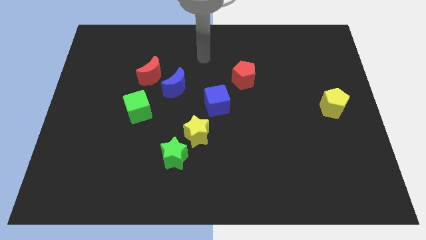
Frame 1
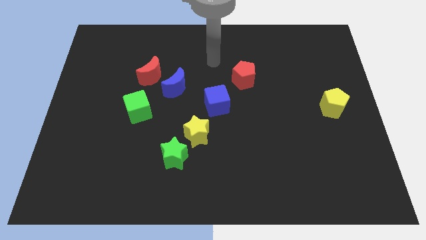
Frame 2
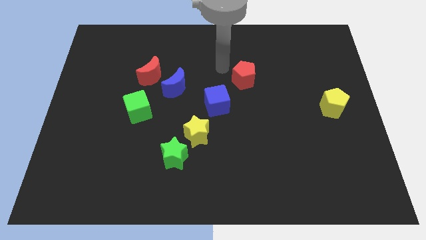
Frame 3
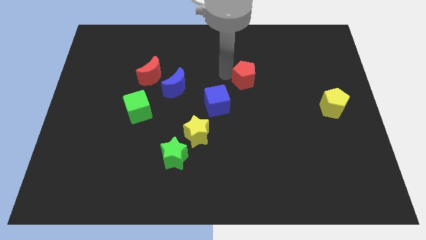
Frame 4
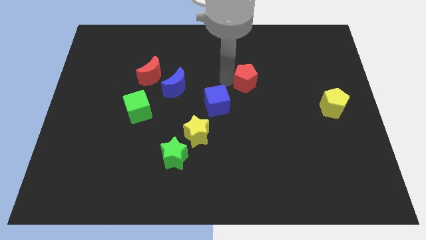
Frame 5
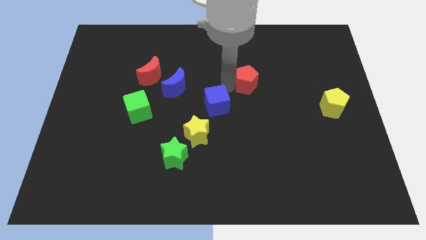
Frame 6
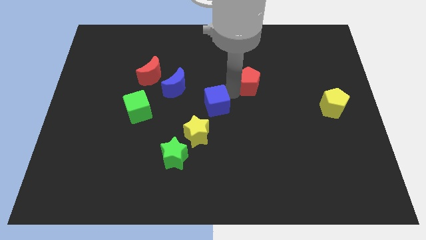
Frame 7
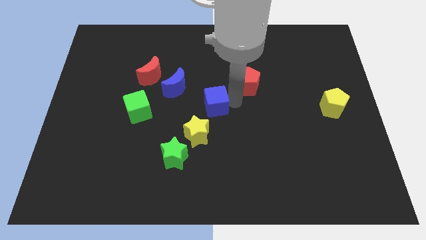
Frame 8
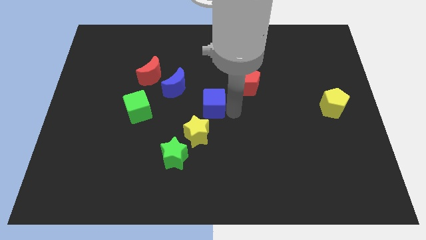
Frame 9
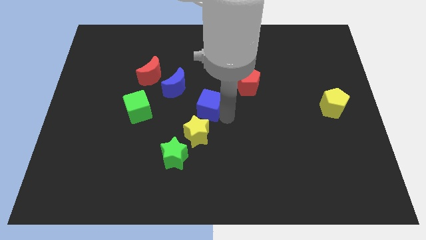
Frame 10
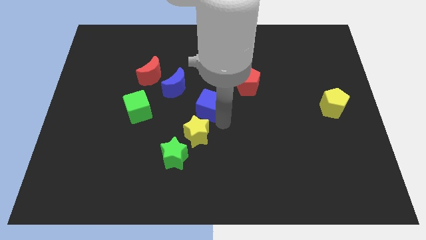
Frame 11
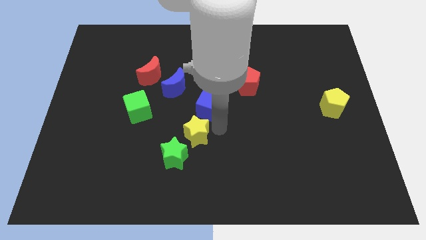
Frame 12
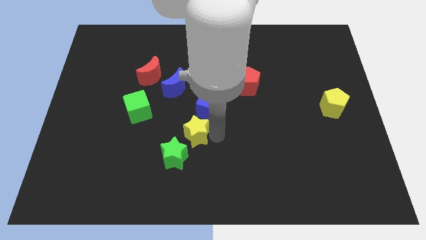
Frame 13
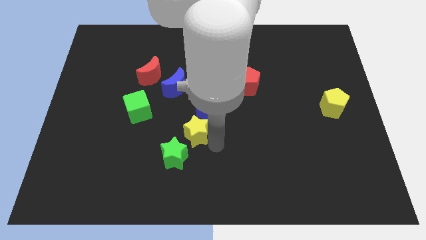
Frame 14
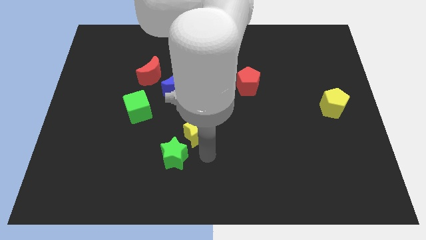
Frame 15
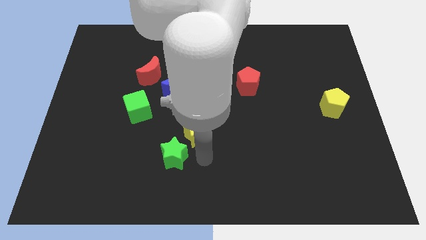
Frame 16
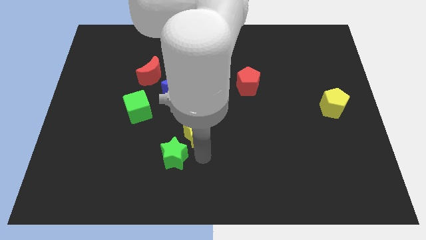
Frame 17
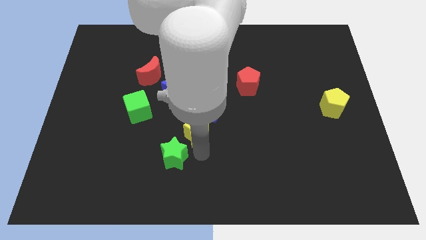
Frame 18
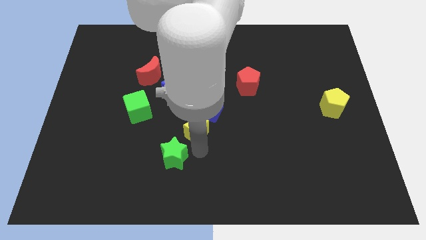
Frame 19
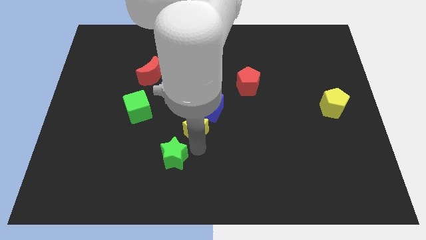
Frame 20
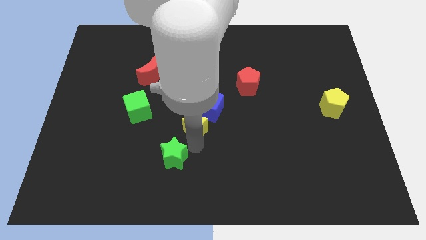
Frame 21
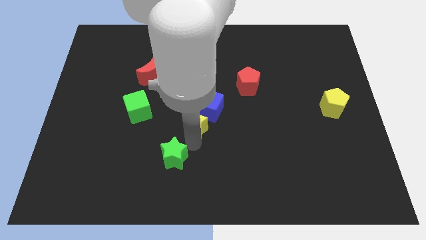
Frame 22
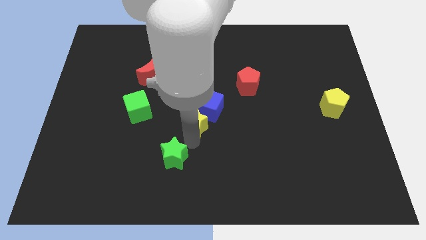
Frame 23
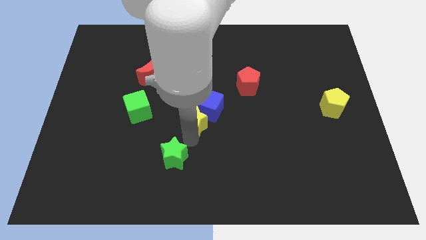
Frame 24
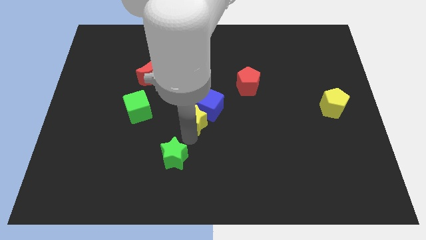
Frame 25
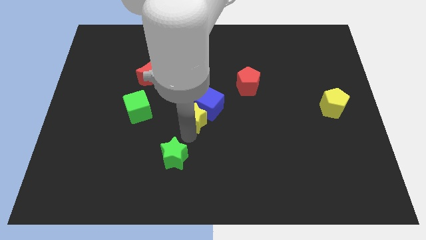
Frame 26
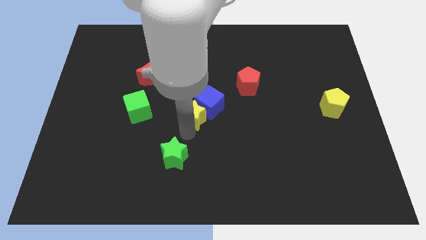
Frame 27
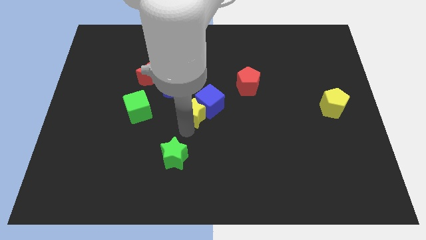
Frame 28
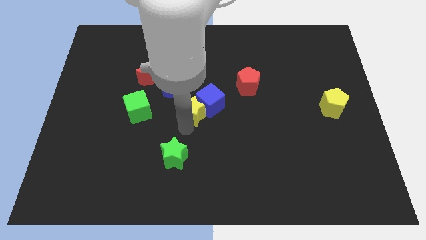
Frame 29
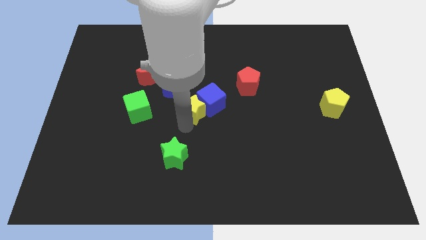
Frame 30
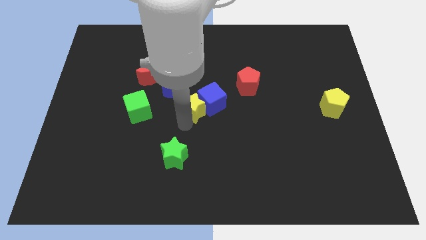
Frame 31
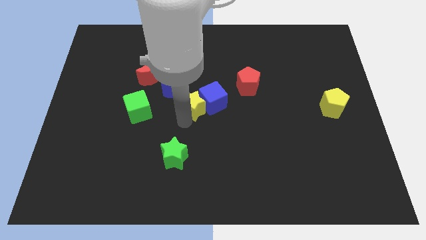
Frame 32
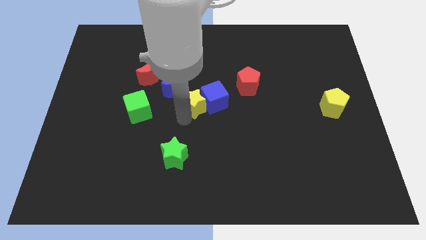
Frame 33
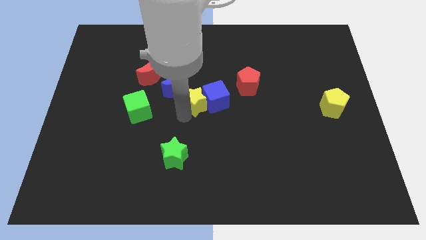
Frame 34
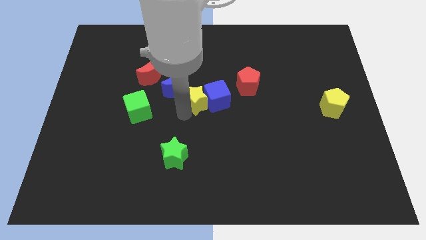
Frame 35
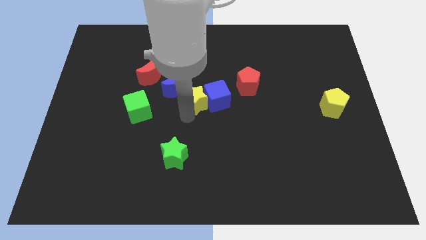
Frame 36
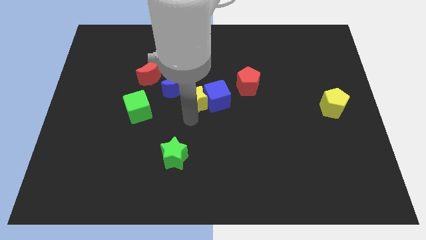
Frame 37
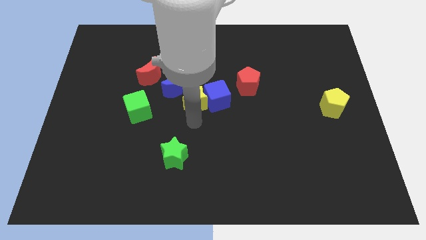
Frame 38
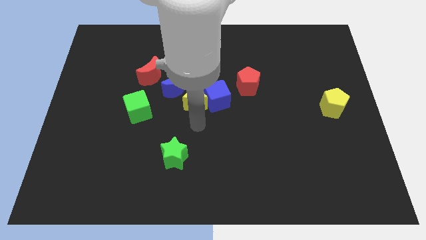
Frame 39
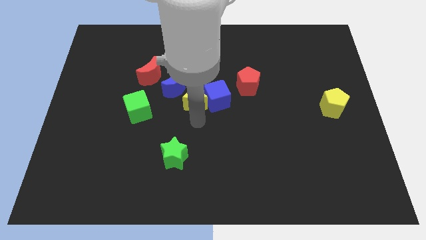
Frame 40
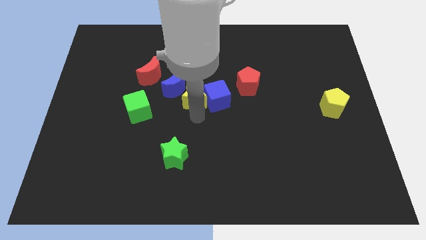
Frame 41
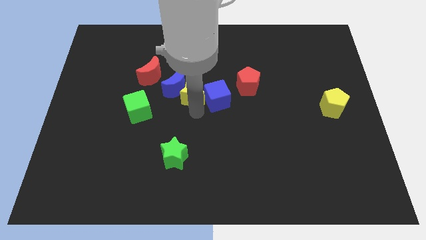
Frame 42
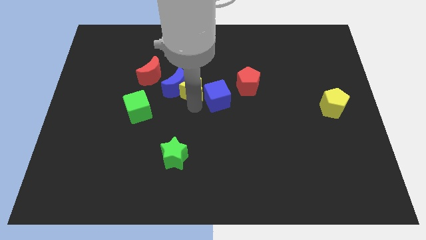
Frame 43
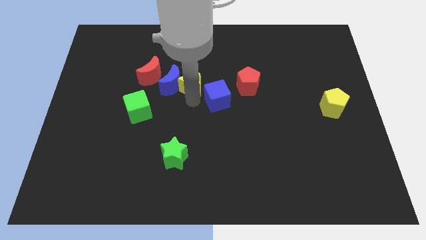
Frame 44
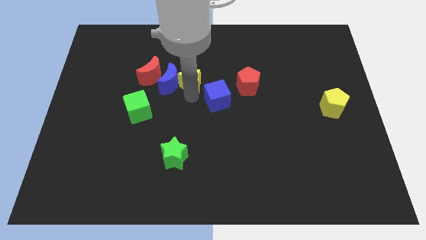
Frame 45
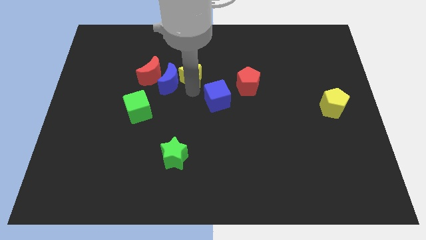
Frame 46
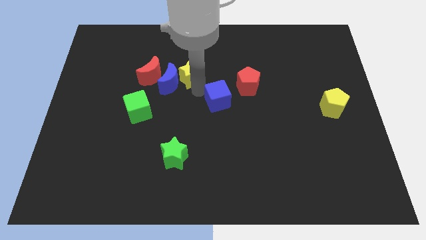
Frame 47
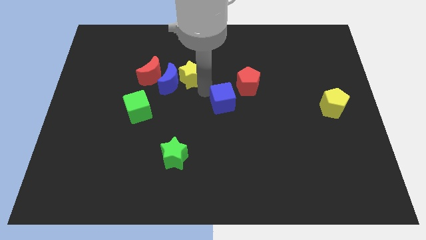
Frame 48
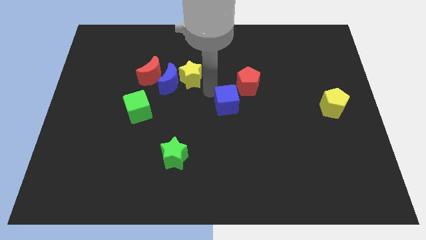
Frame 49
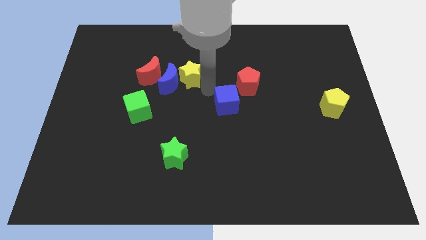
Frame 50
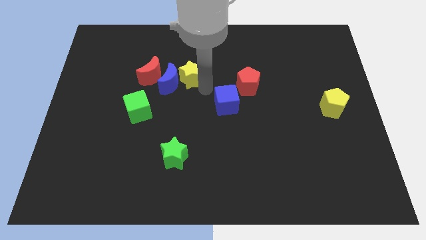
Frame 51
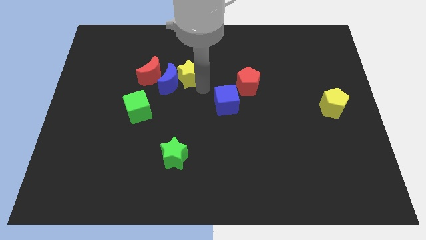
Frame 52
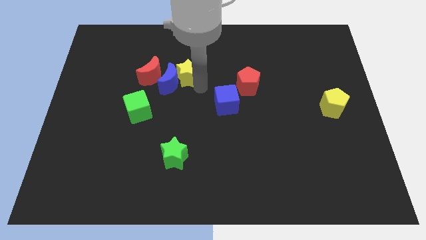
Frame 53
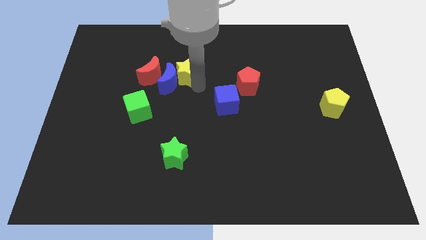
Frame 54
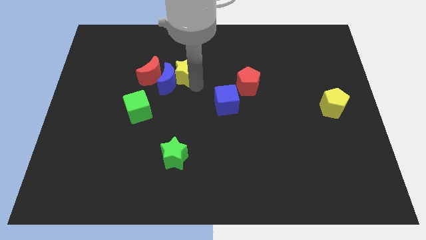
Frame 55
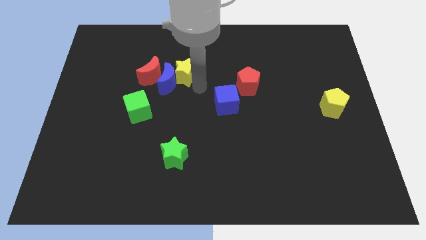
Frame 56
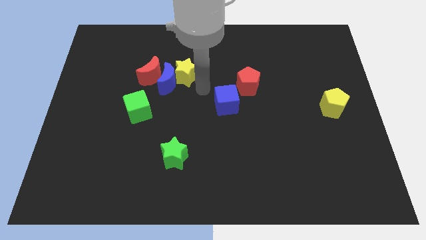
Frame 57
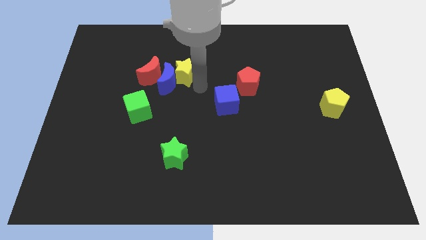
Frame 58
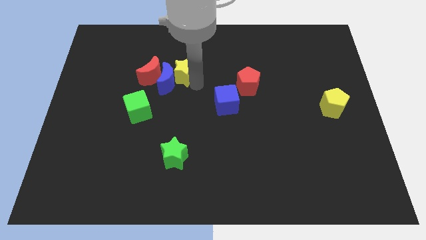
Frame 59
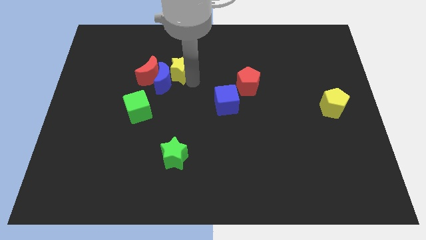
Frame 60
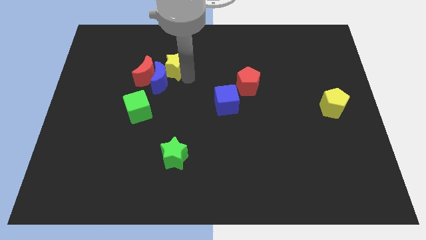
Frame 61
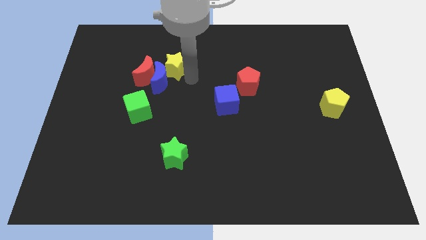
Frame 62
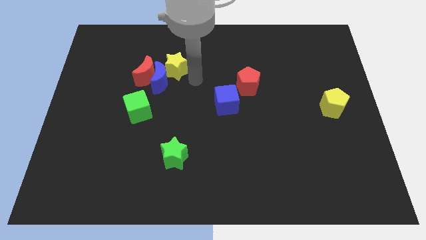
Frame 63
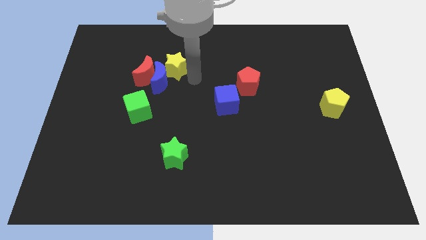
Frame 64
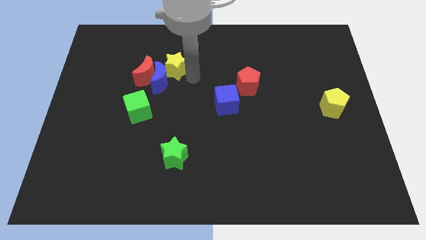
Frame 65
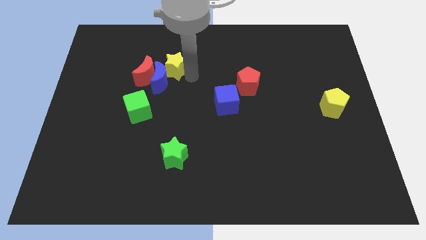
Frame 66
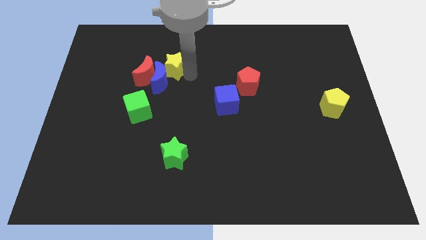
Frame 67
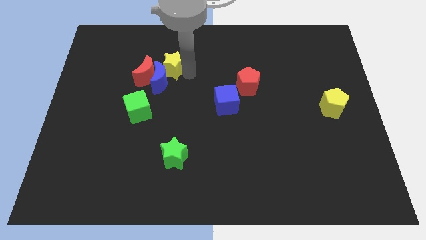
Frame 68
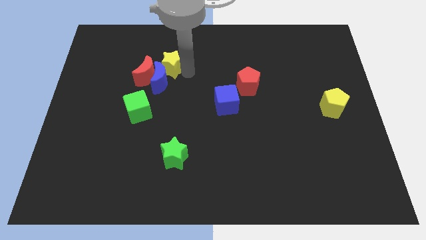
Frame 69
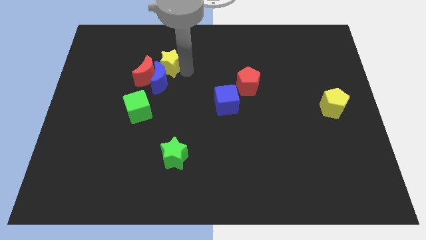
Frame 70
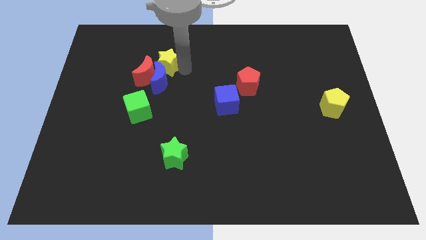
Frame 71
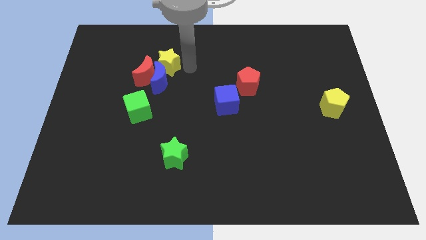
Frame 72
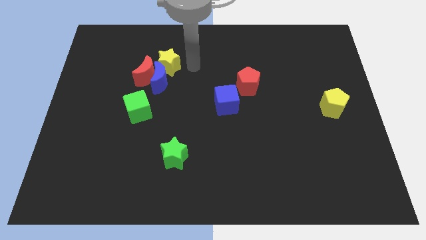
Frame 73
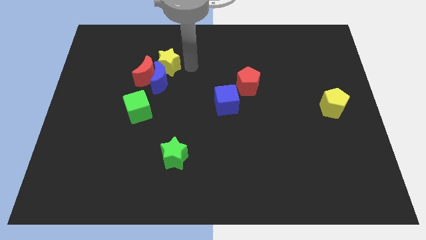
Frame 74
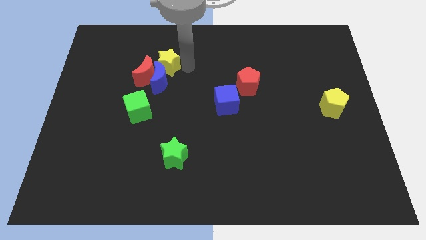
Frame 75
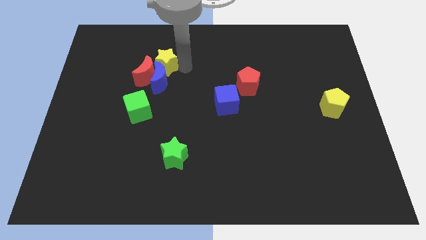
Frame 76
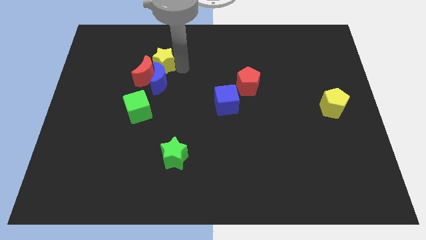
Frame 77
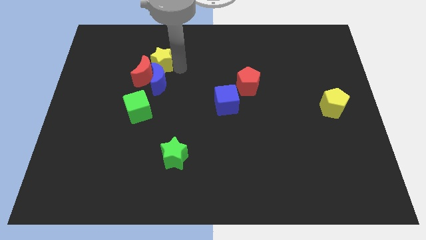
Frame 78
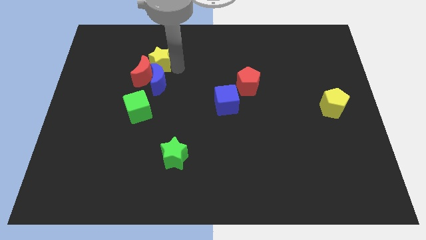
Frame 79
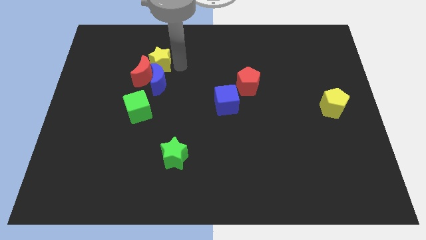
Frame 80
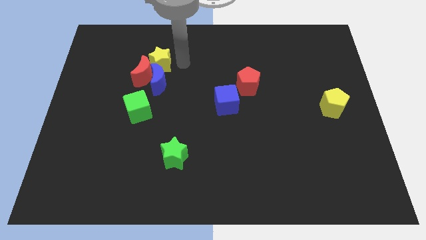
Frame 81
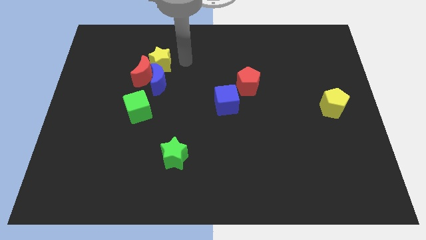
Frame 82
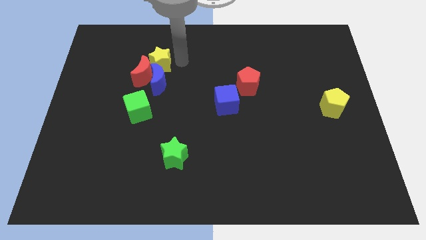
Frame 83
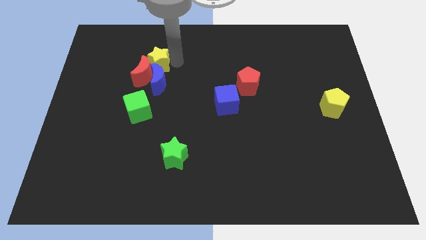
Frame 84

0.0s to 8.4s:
push the yellow star above the green cube
